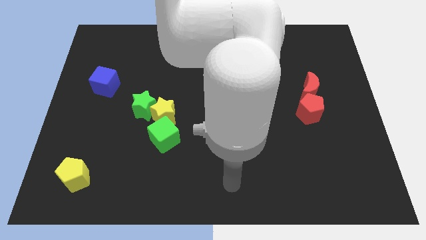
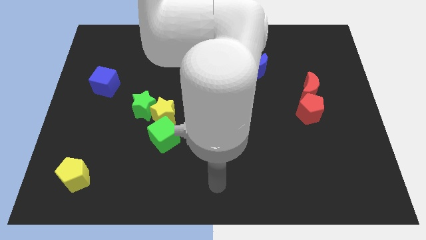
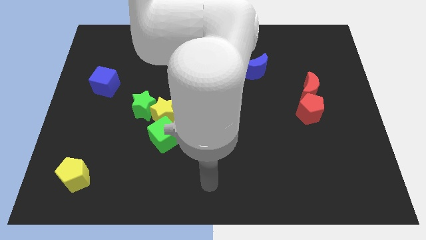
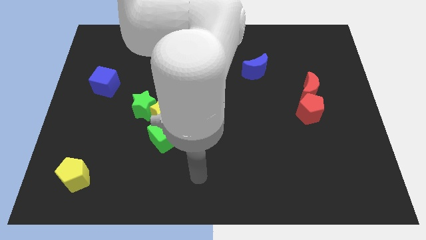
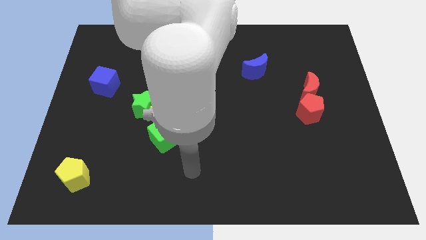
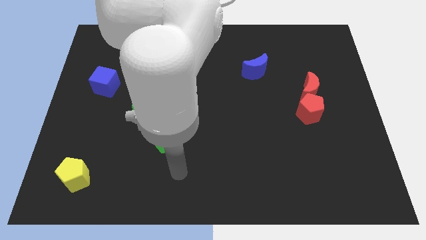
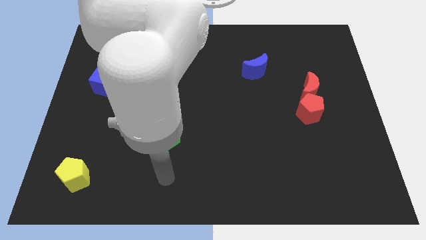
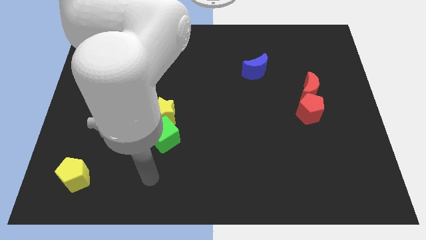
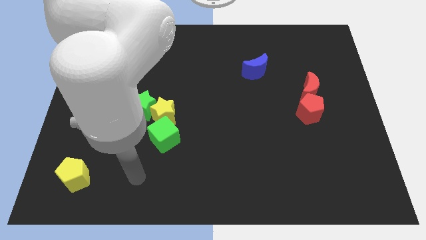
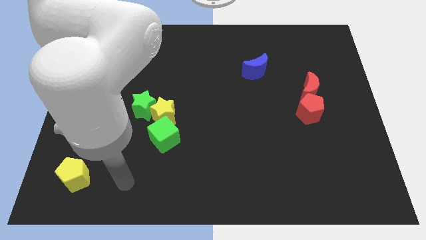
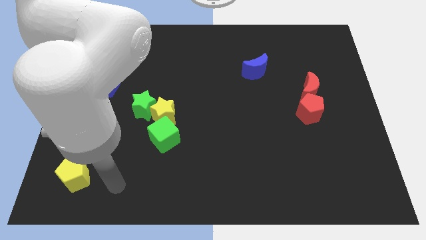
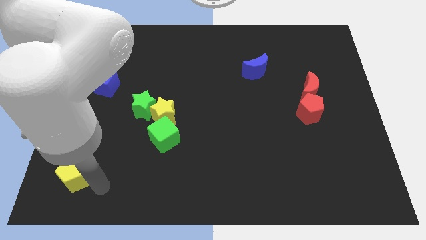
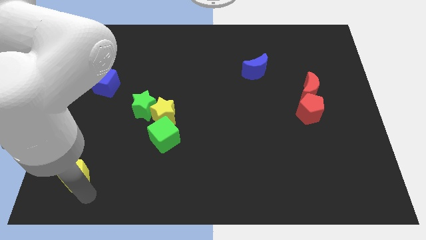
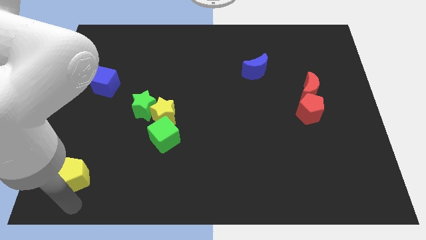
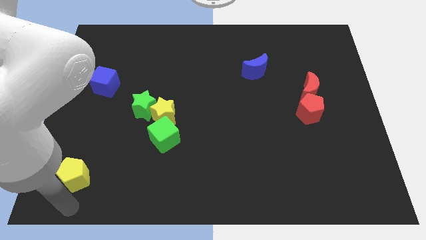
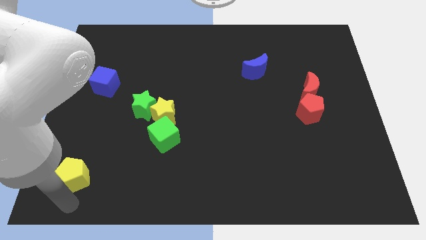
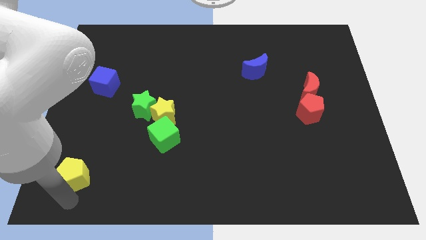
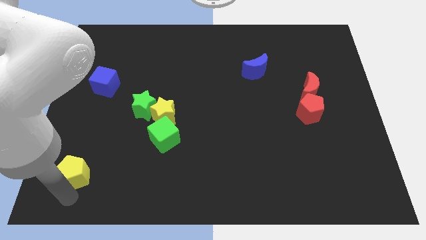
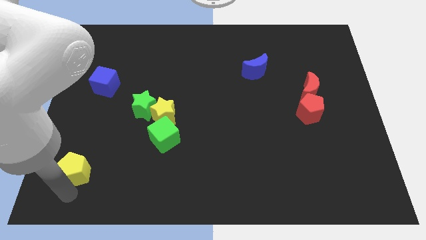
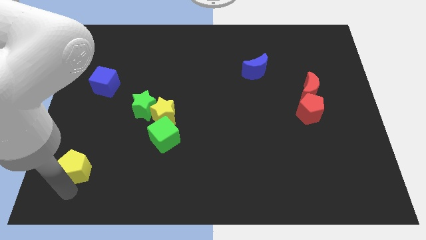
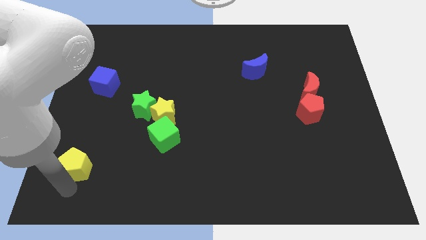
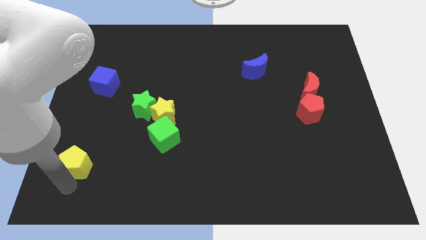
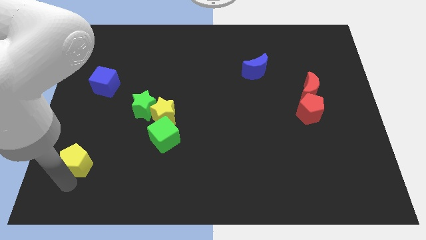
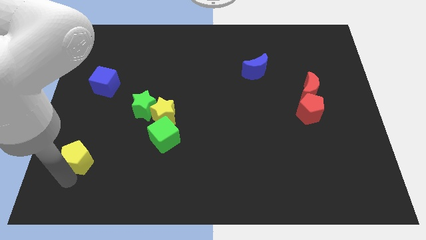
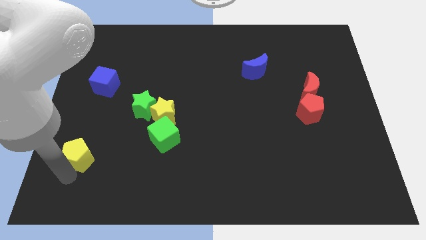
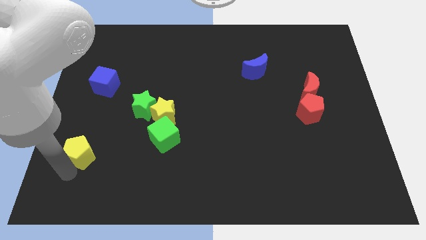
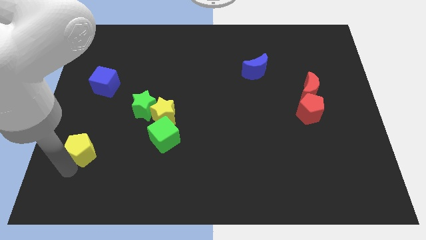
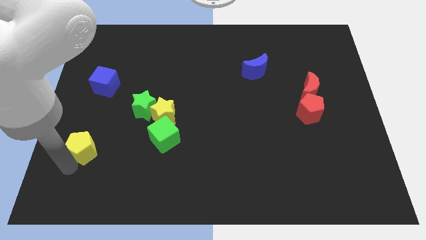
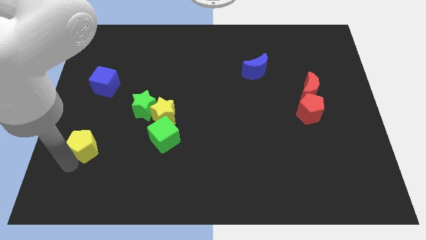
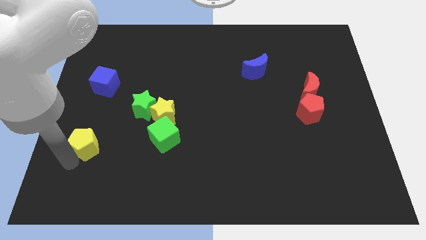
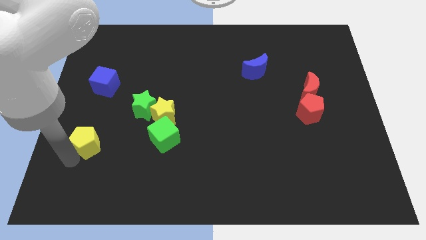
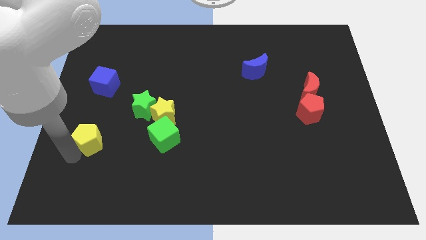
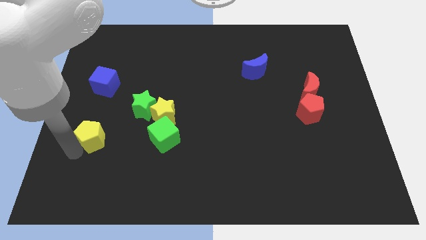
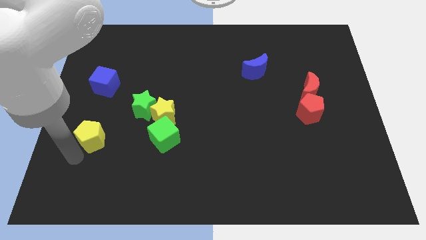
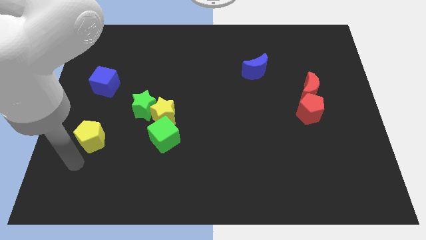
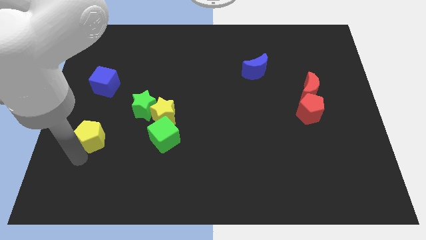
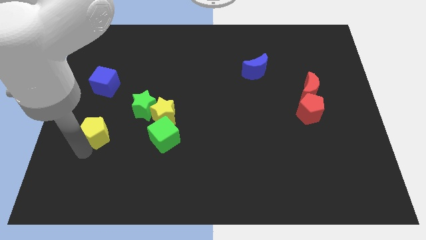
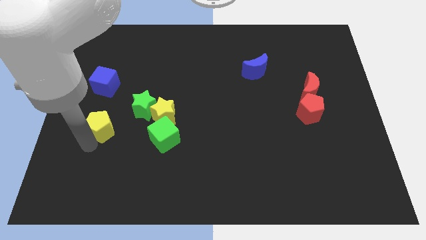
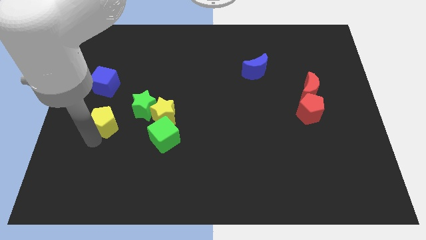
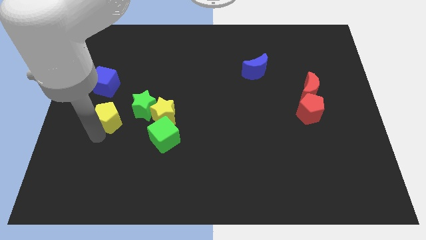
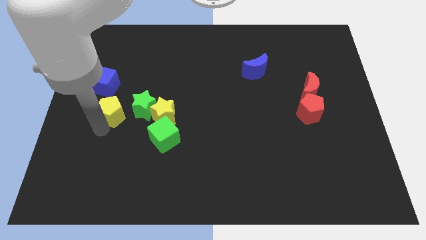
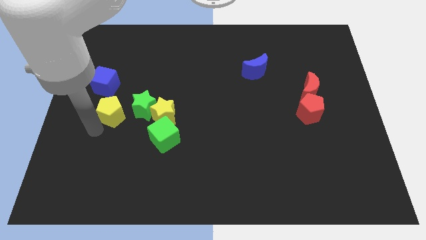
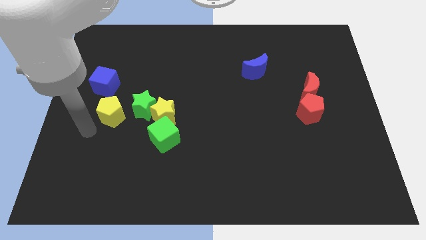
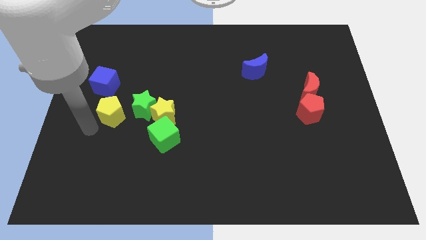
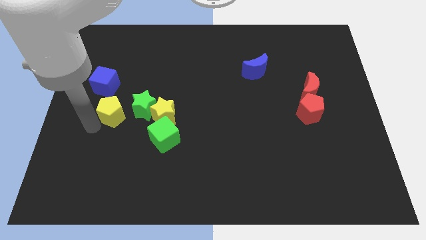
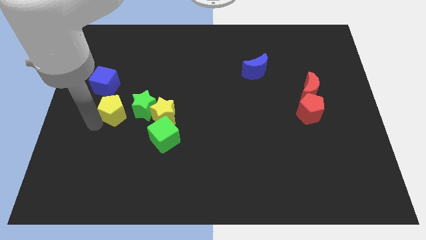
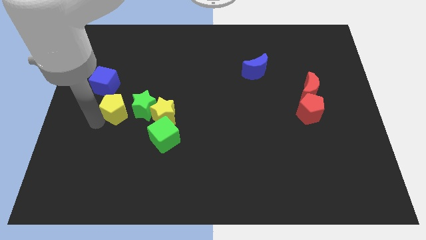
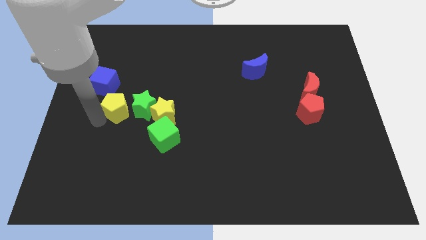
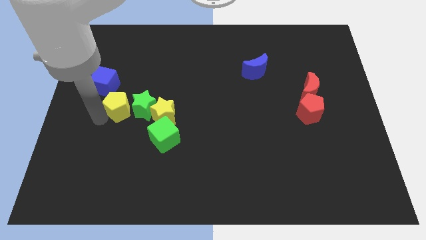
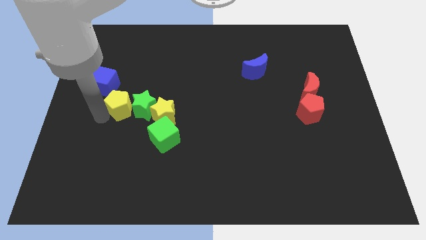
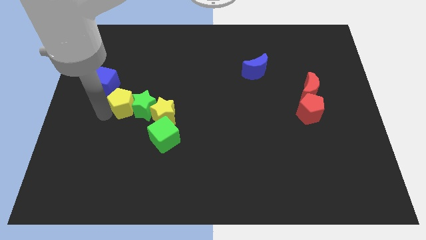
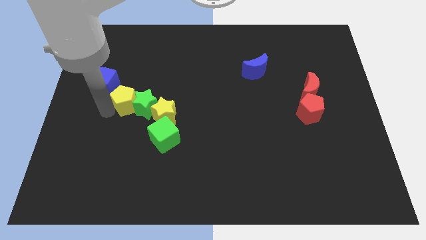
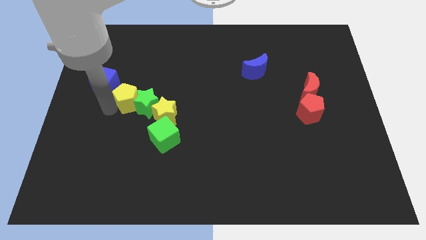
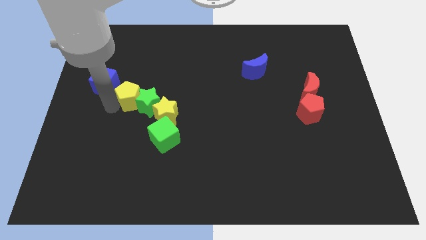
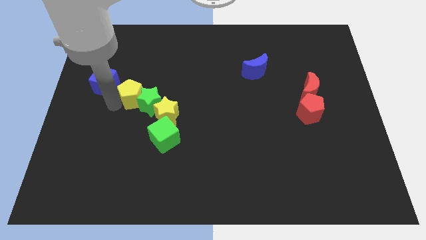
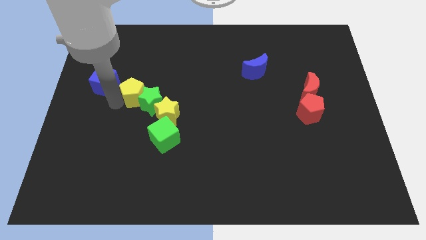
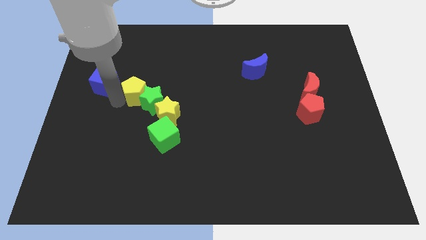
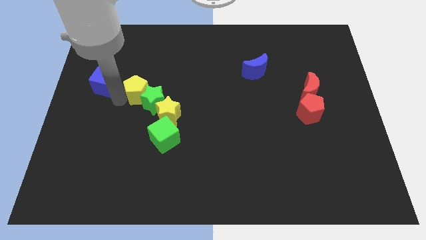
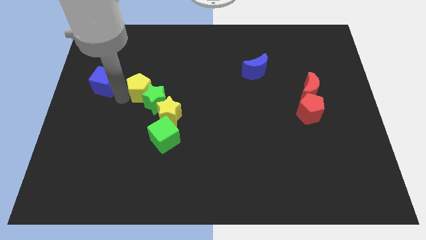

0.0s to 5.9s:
push the yellow pentagon up and to the right diagonally

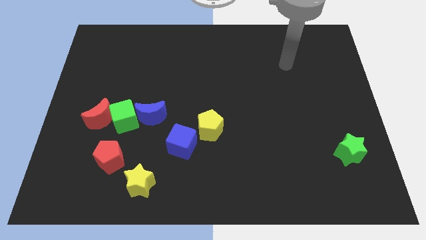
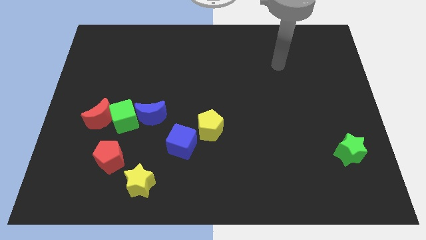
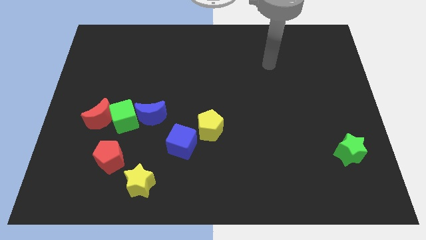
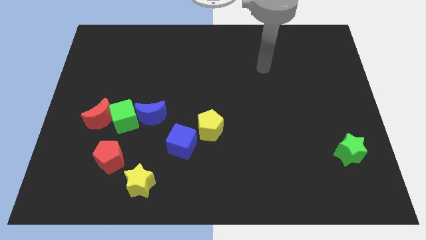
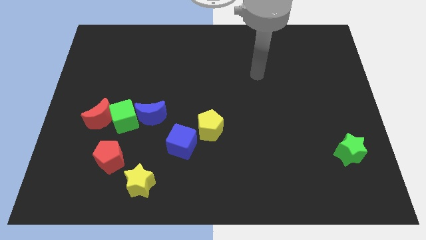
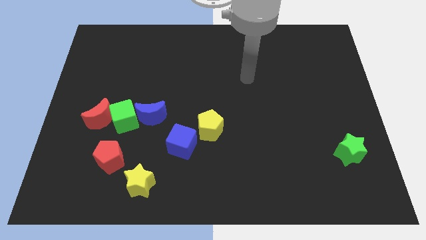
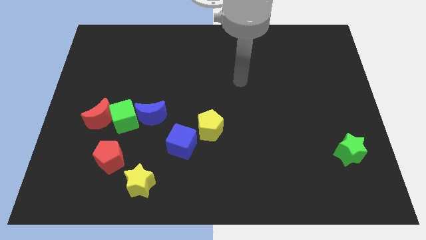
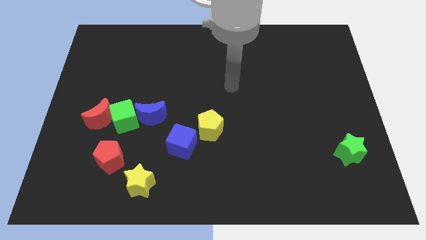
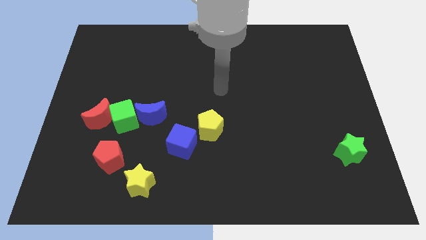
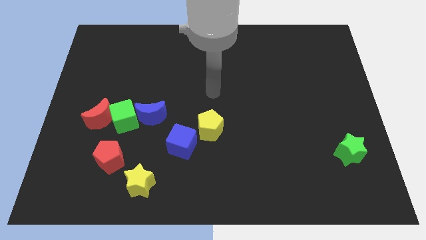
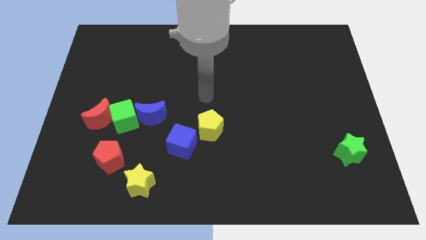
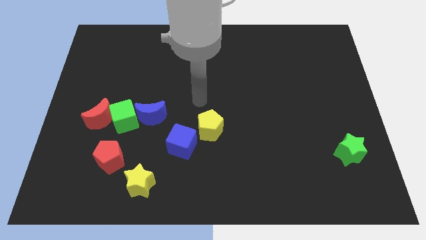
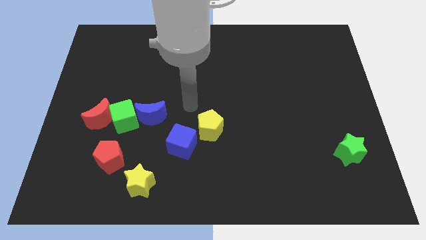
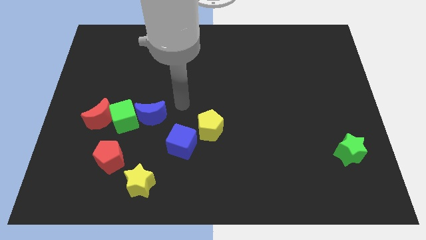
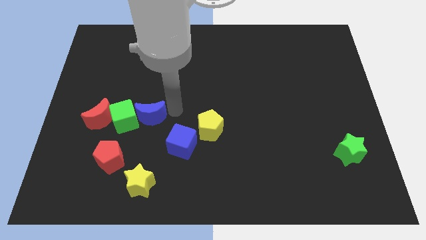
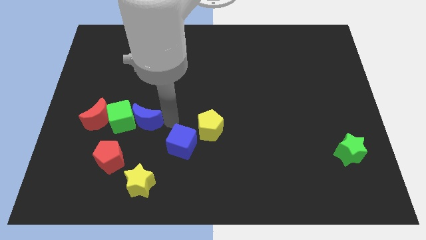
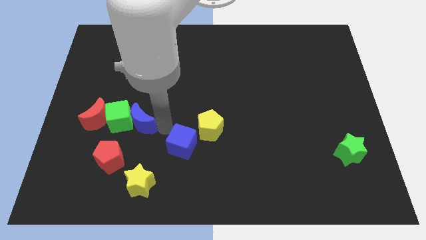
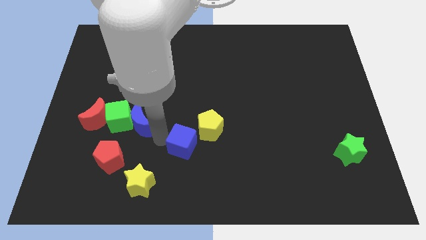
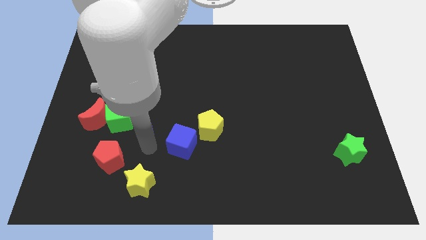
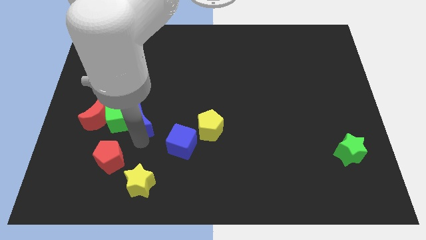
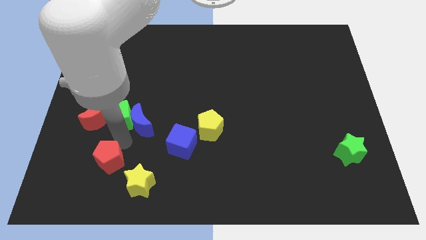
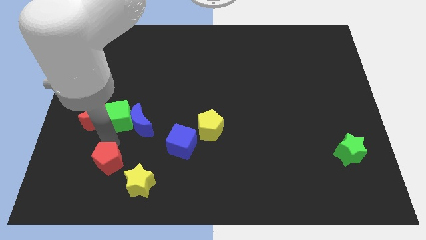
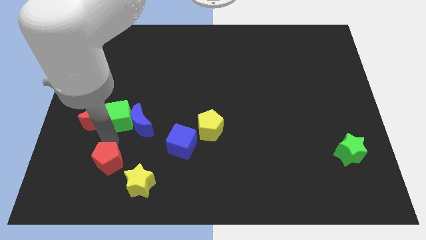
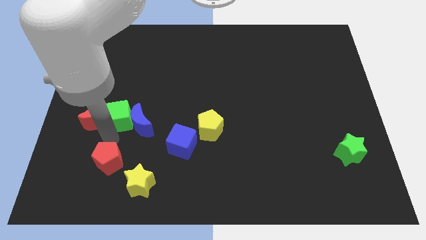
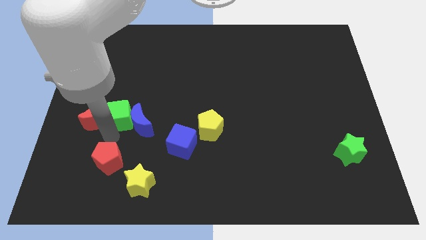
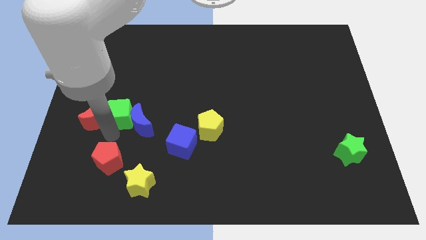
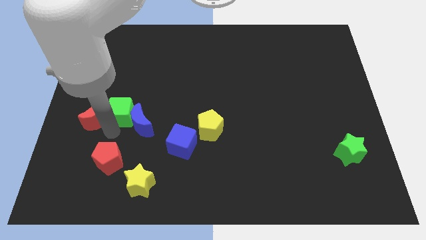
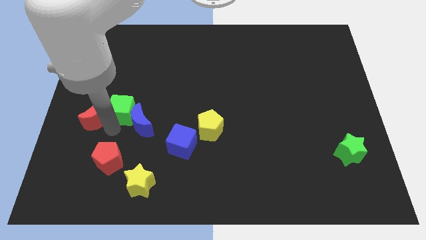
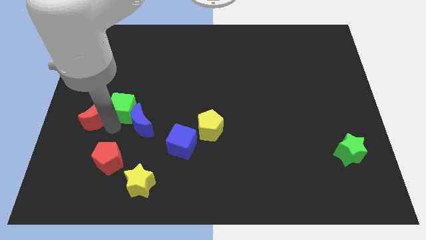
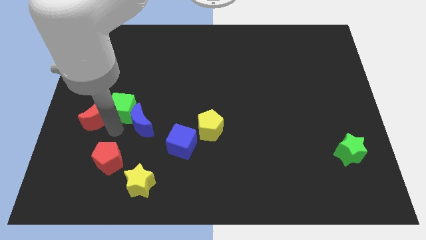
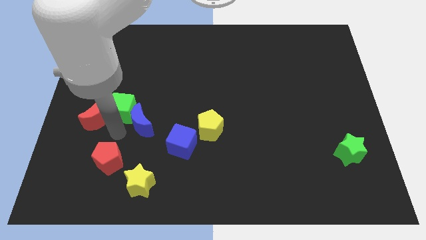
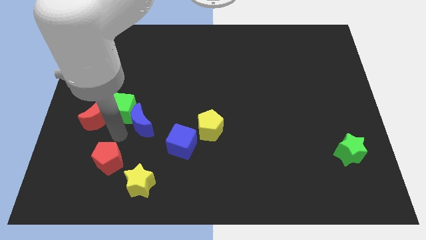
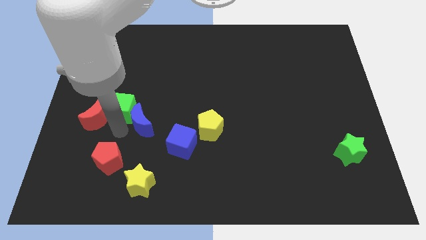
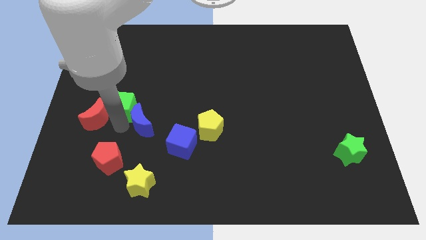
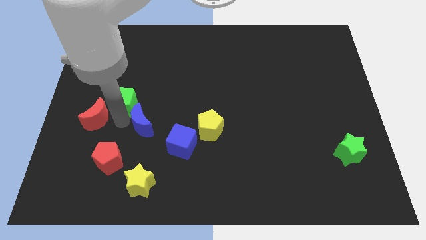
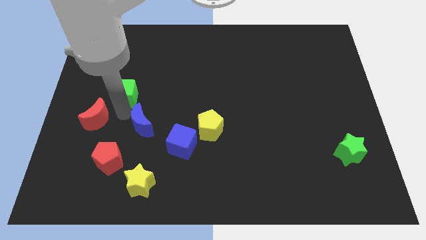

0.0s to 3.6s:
push the green cube a little bit upwards
